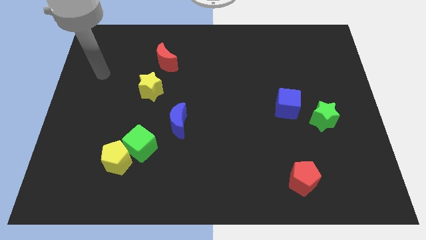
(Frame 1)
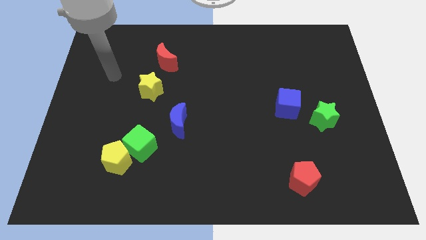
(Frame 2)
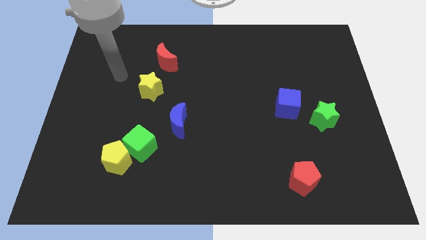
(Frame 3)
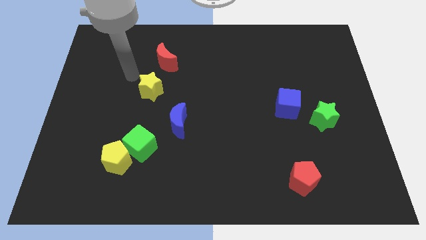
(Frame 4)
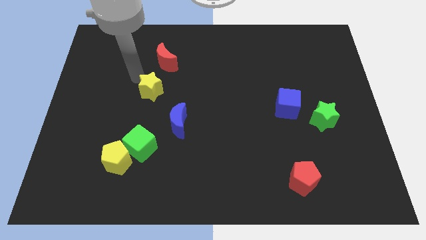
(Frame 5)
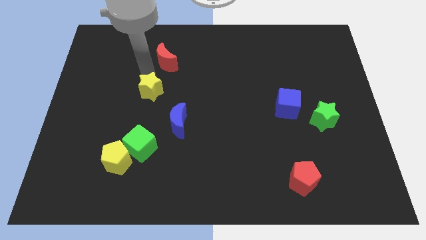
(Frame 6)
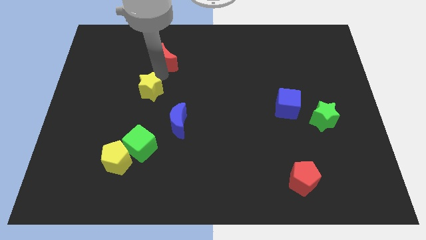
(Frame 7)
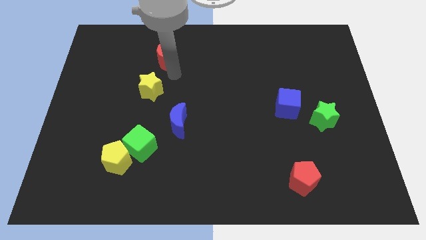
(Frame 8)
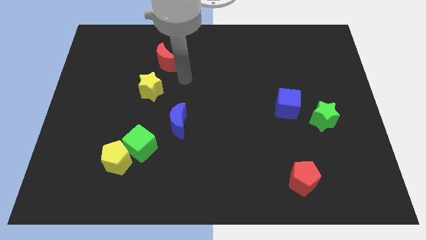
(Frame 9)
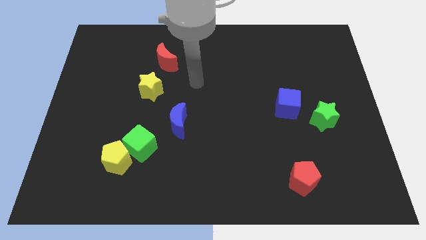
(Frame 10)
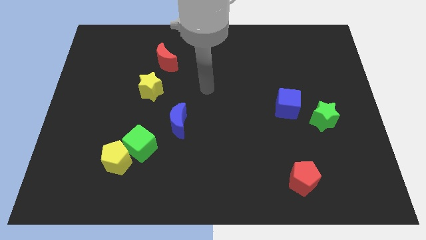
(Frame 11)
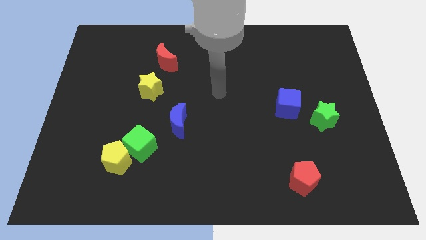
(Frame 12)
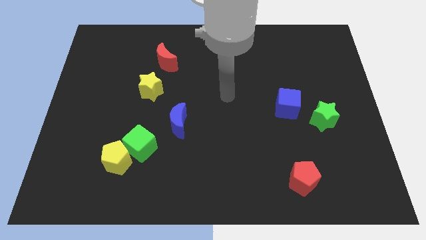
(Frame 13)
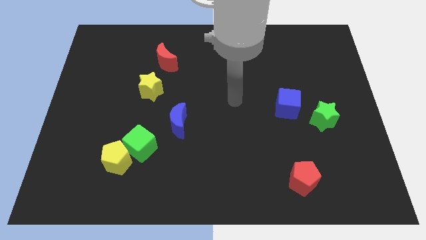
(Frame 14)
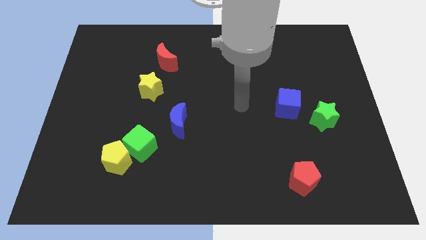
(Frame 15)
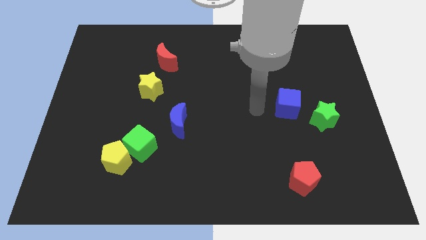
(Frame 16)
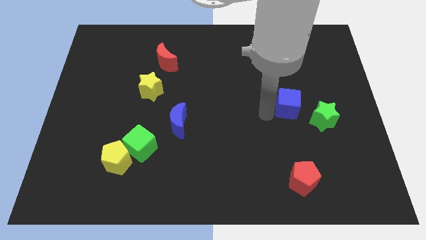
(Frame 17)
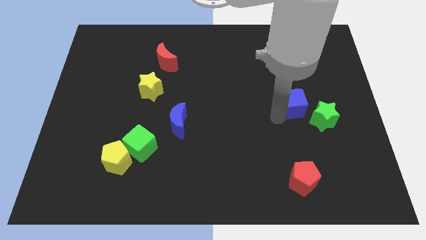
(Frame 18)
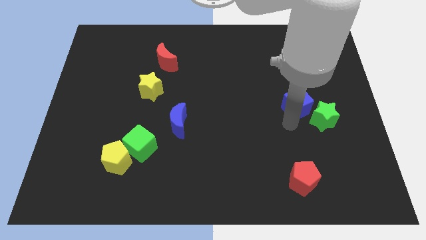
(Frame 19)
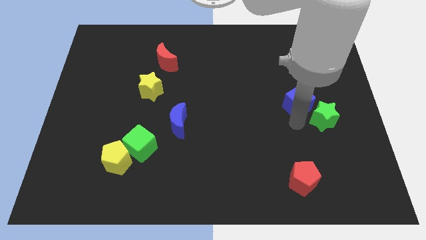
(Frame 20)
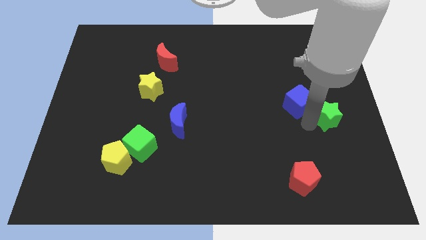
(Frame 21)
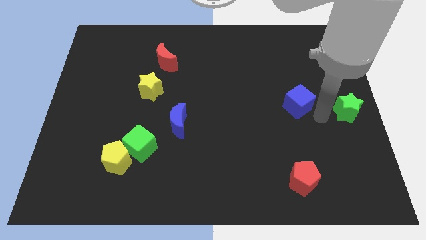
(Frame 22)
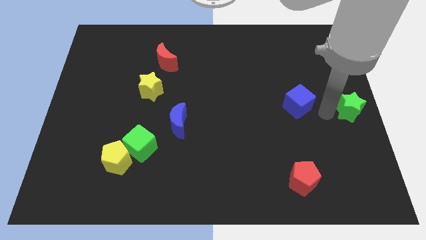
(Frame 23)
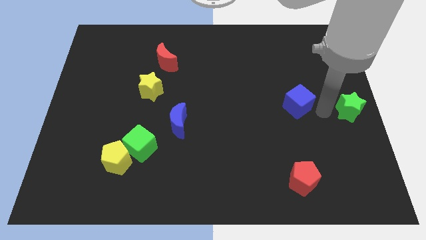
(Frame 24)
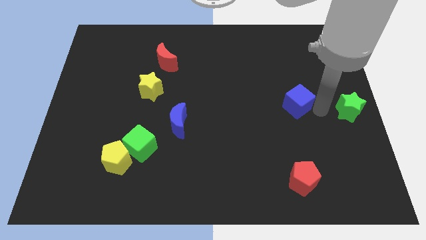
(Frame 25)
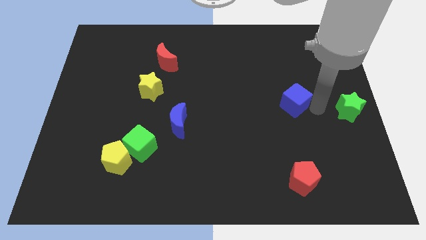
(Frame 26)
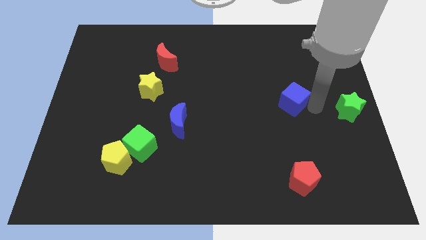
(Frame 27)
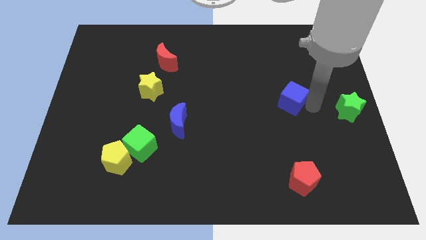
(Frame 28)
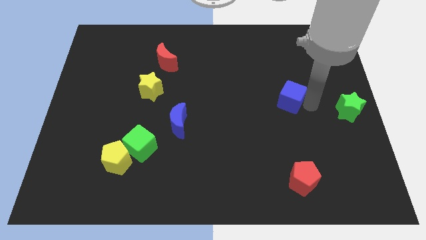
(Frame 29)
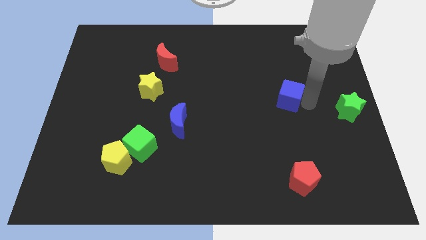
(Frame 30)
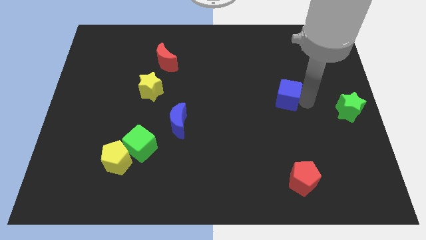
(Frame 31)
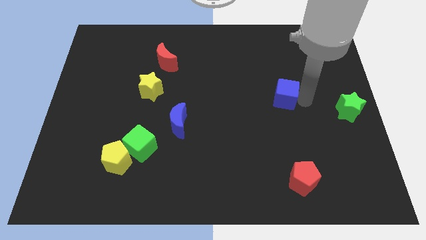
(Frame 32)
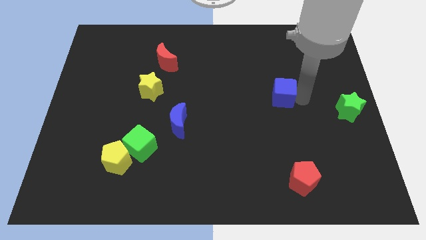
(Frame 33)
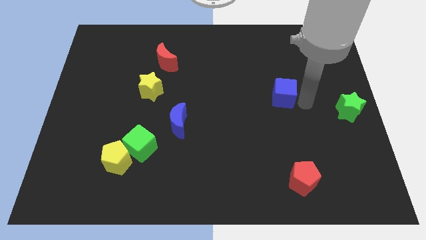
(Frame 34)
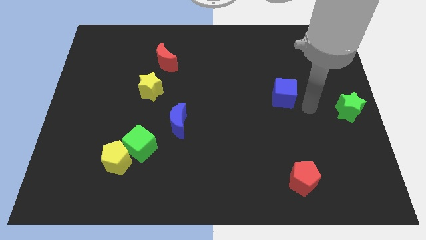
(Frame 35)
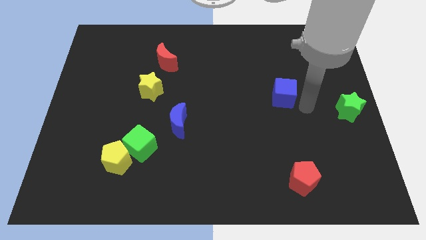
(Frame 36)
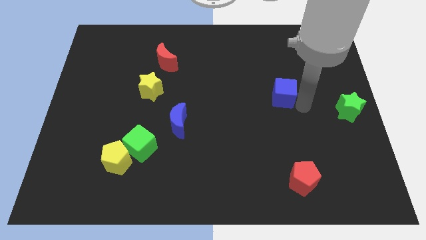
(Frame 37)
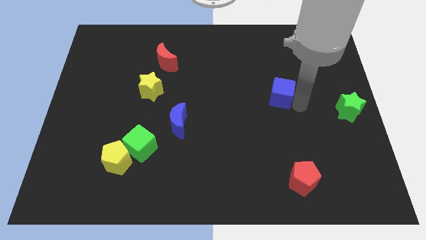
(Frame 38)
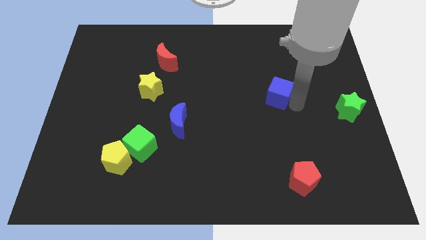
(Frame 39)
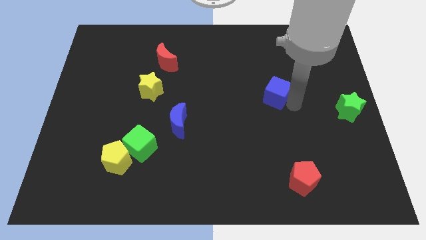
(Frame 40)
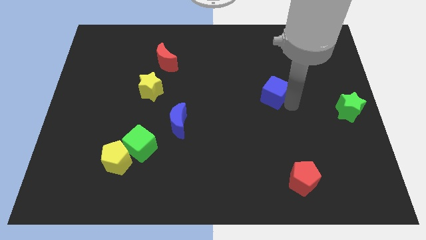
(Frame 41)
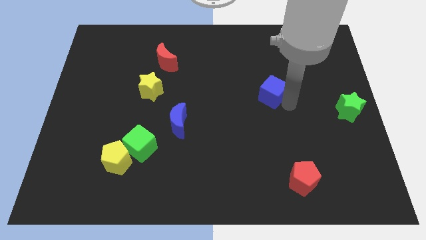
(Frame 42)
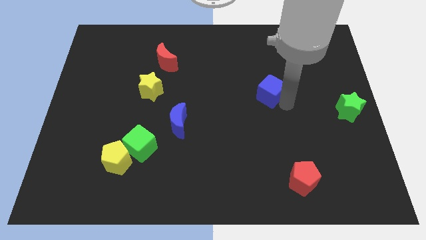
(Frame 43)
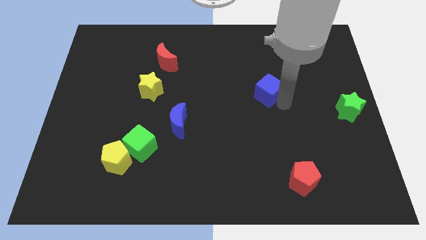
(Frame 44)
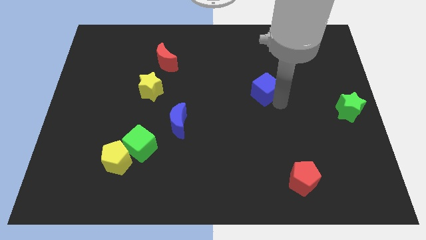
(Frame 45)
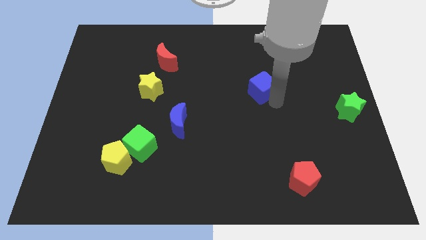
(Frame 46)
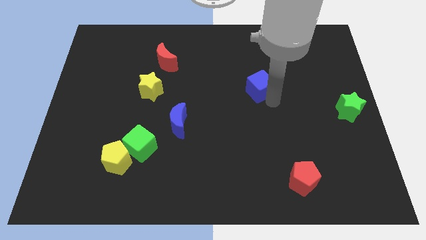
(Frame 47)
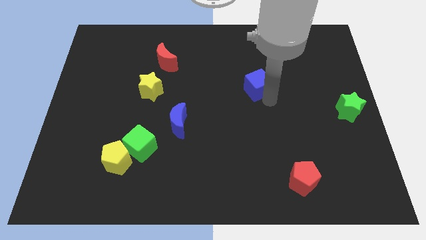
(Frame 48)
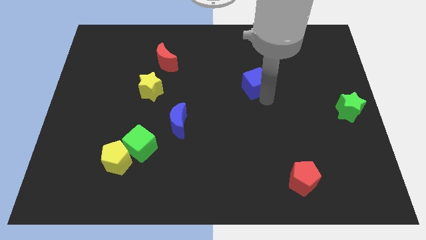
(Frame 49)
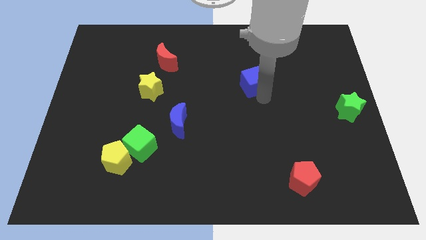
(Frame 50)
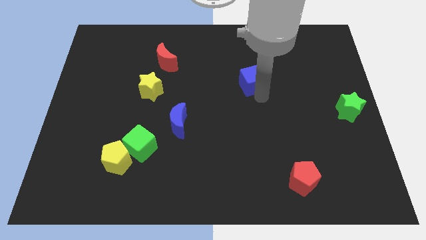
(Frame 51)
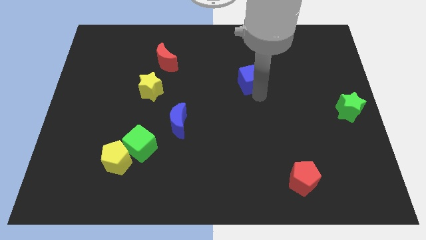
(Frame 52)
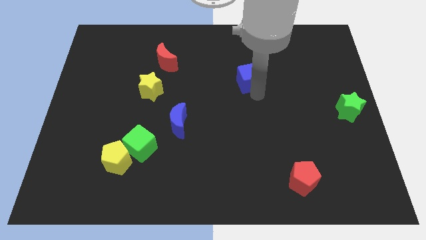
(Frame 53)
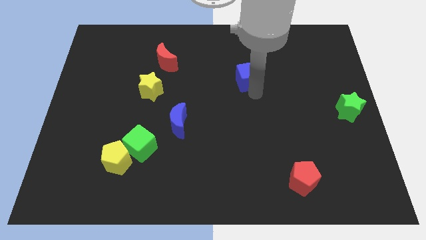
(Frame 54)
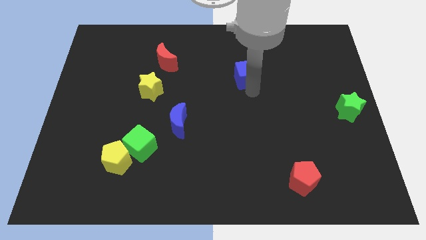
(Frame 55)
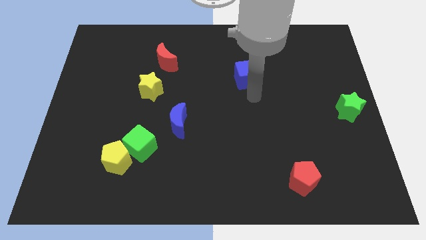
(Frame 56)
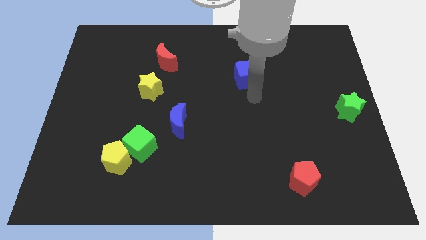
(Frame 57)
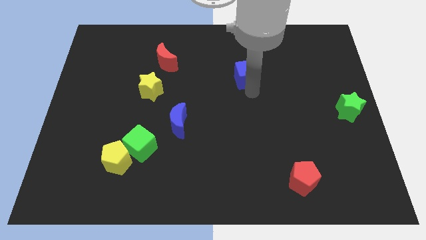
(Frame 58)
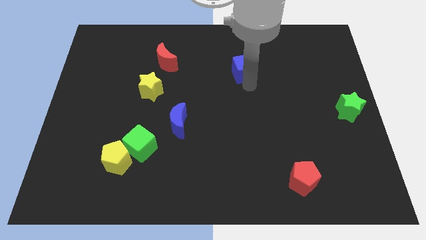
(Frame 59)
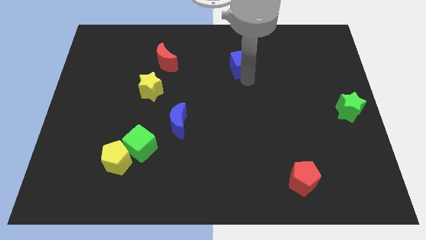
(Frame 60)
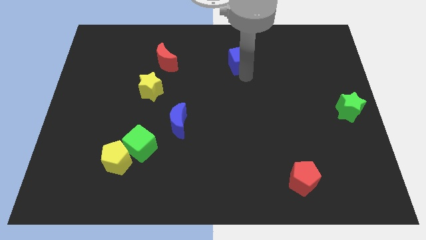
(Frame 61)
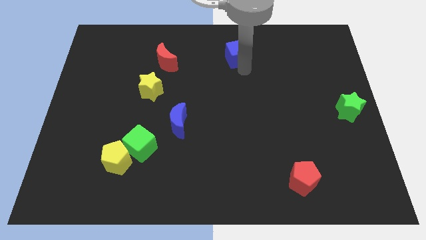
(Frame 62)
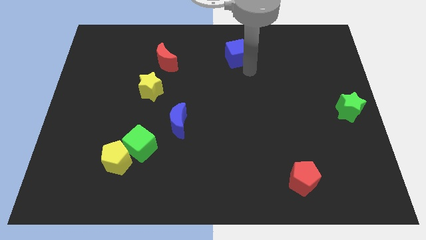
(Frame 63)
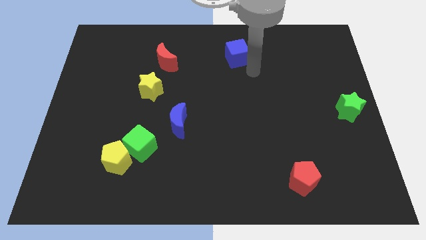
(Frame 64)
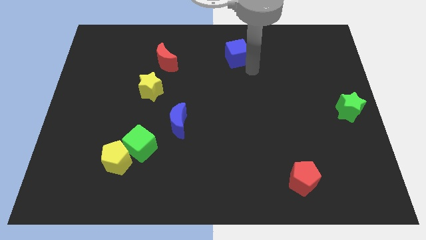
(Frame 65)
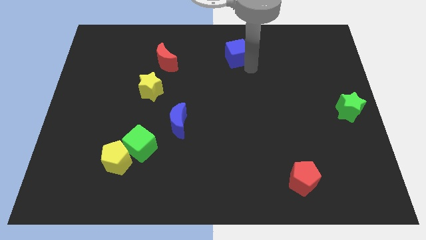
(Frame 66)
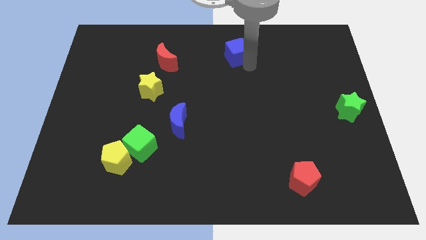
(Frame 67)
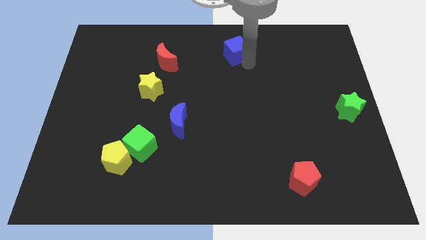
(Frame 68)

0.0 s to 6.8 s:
push the blue cube to the towards your base
